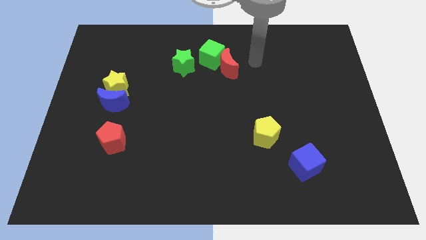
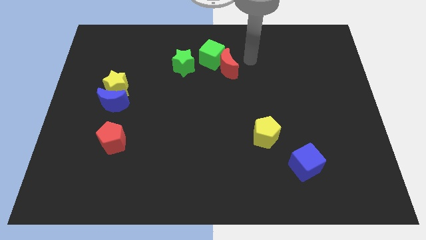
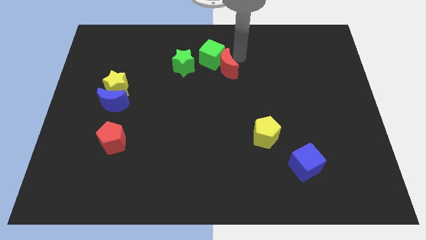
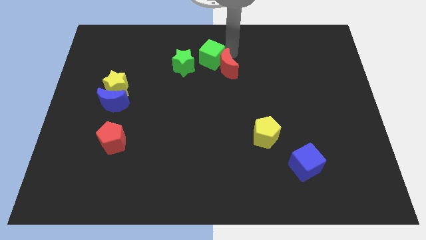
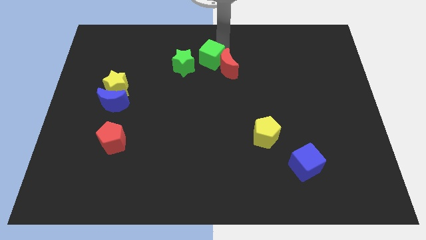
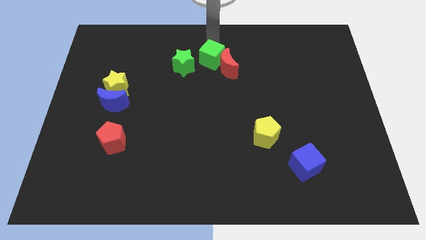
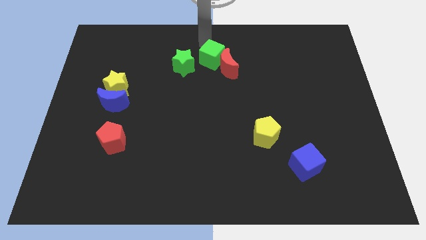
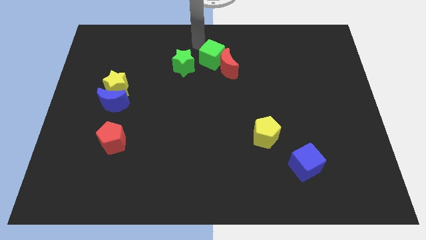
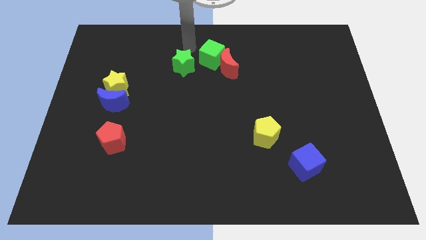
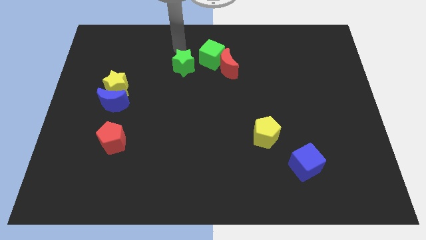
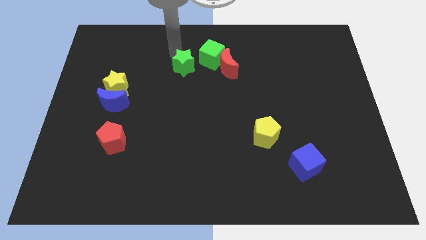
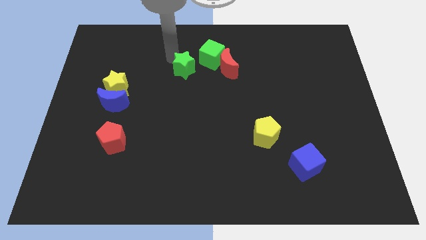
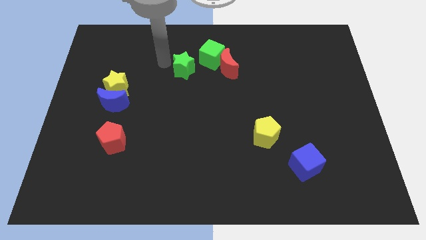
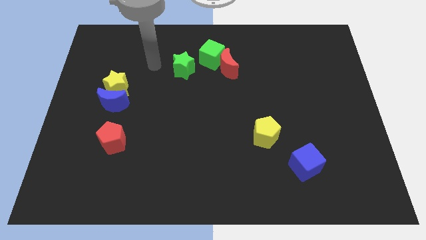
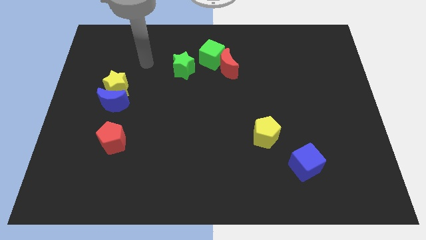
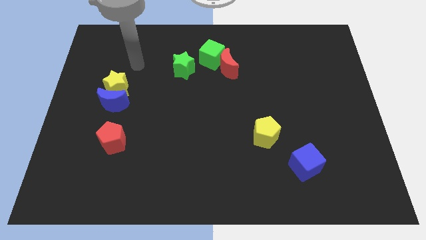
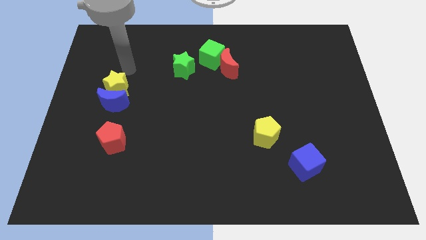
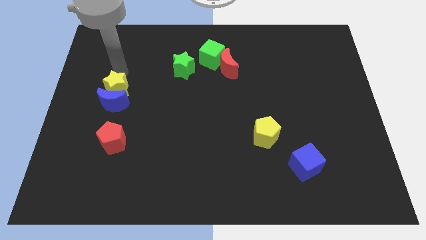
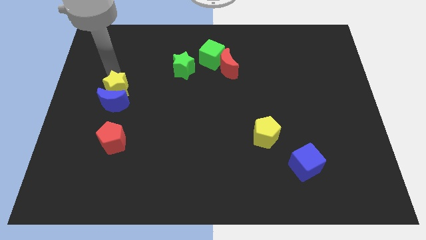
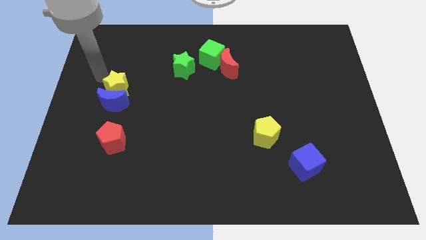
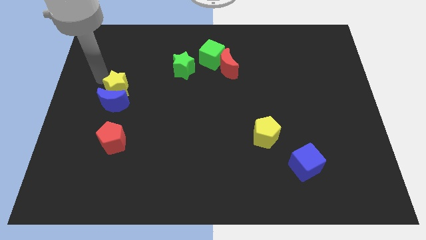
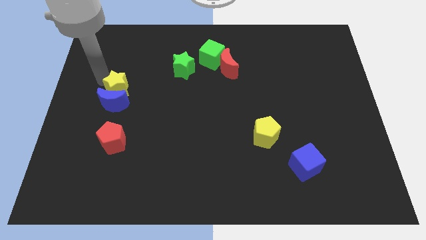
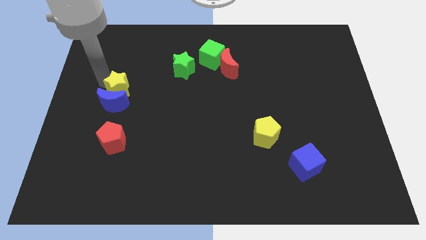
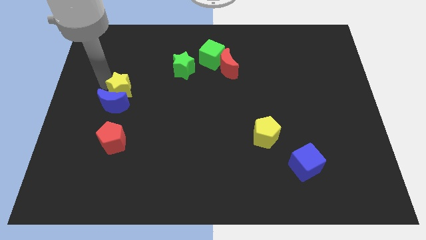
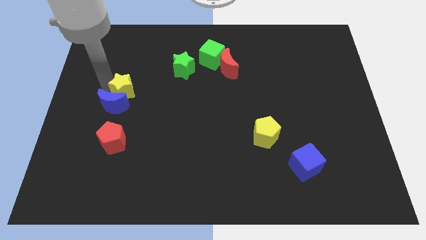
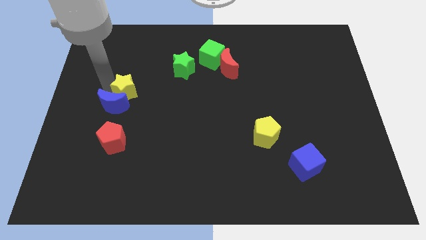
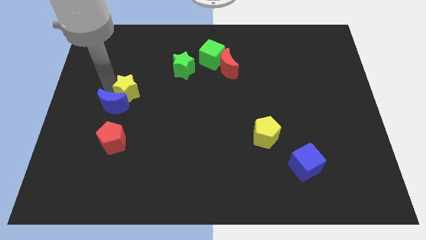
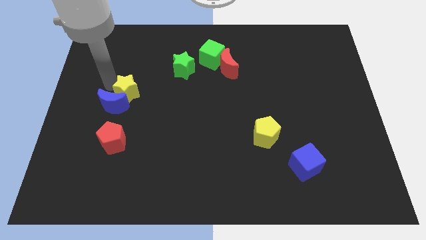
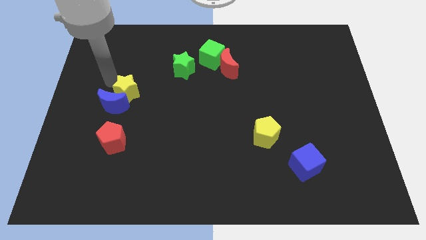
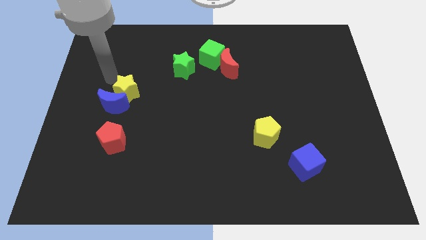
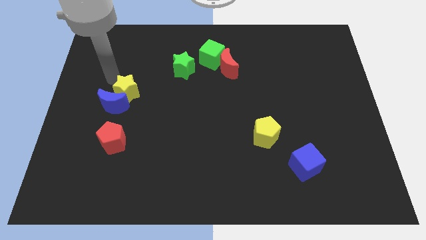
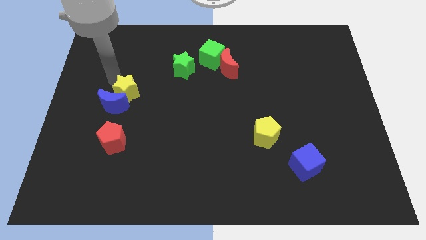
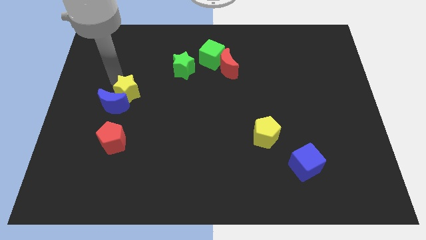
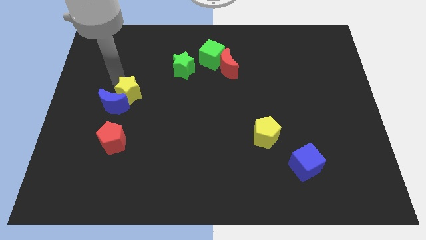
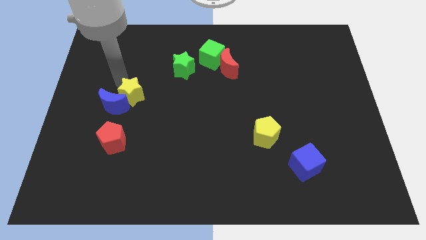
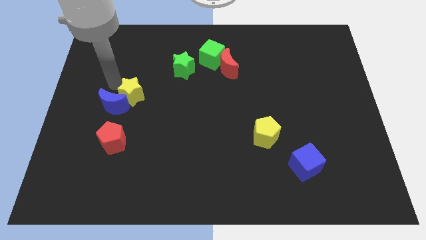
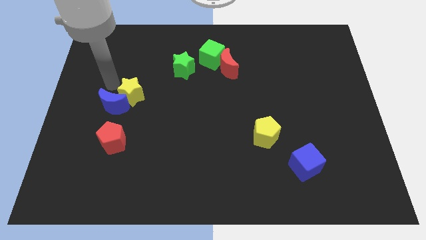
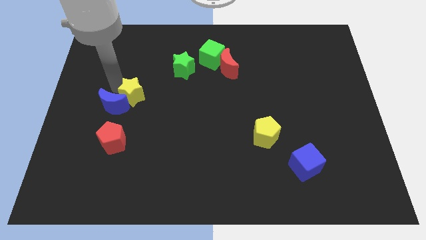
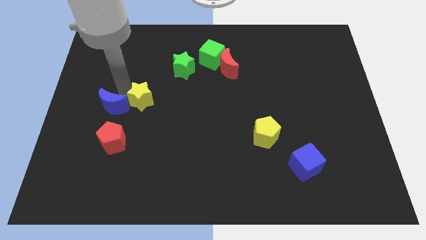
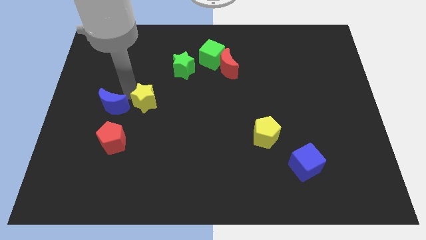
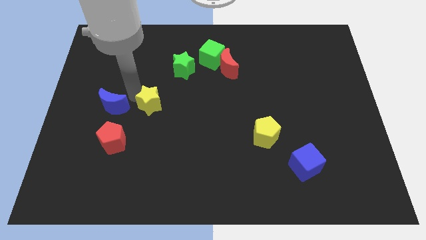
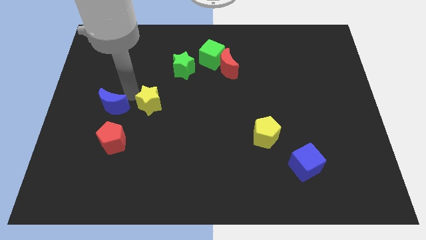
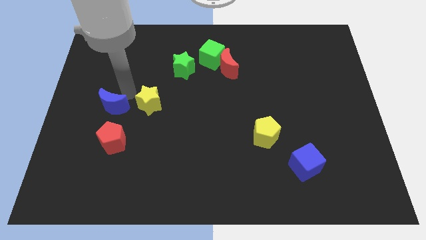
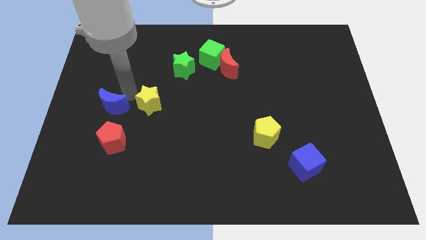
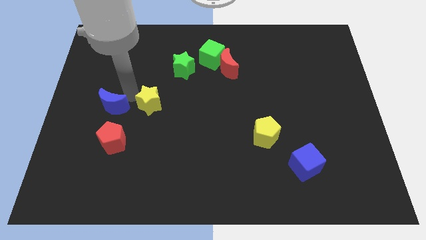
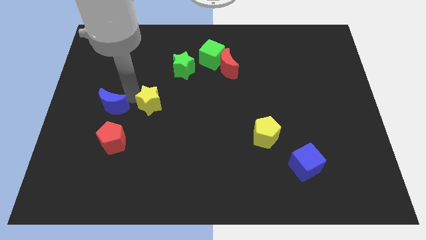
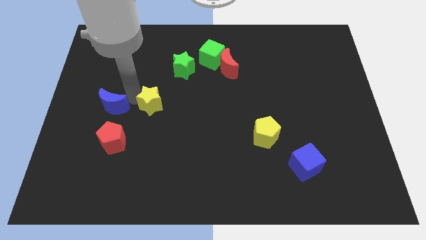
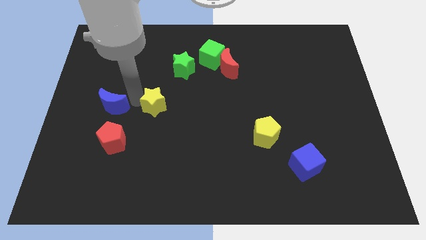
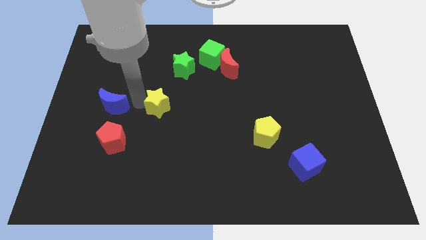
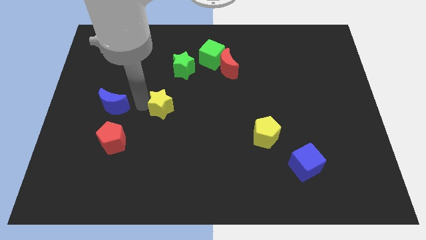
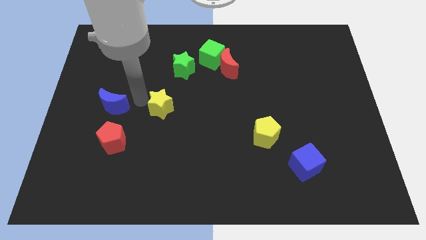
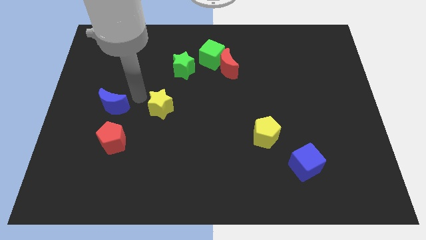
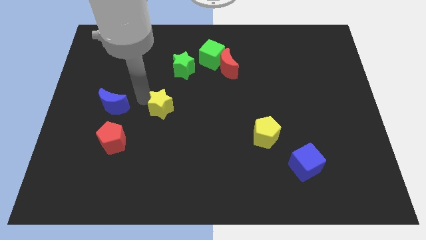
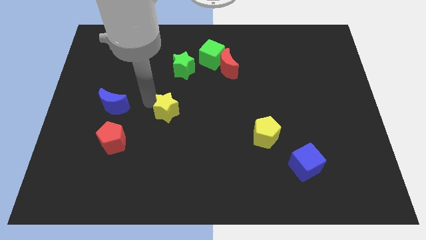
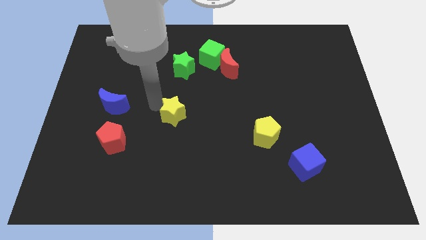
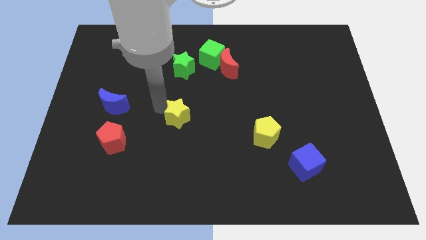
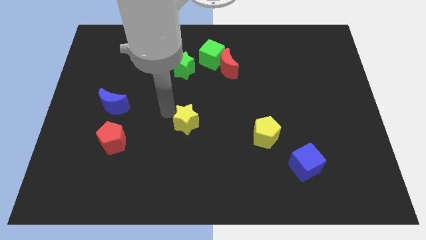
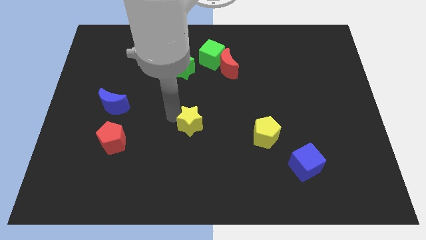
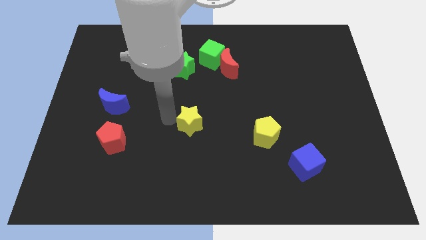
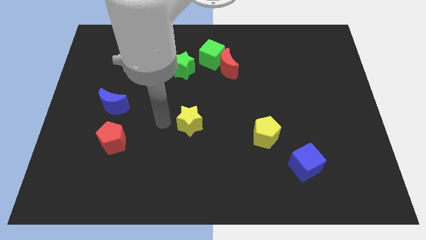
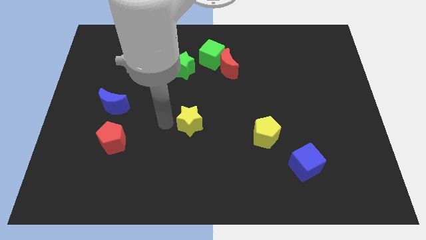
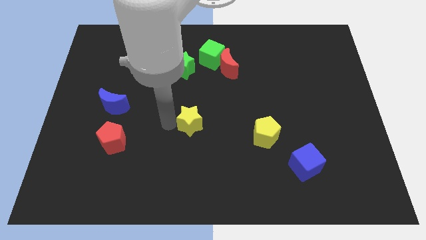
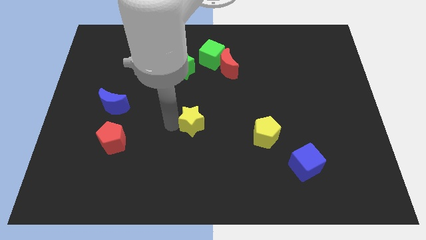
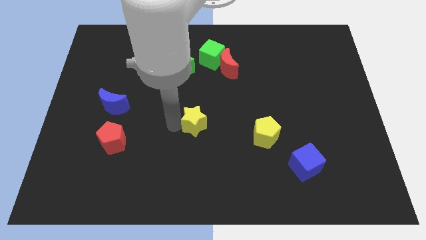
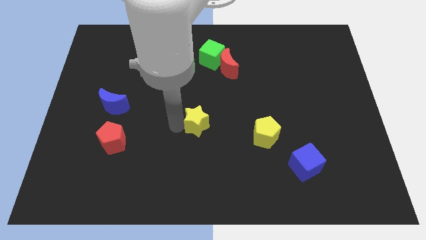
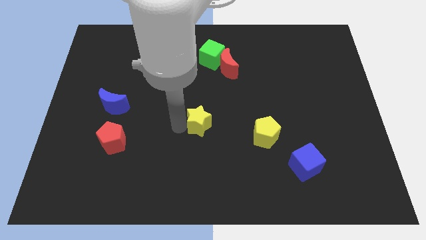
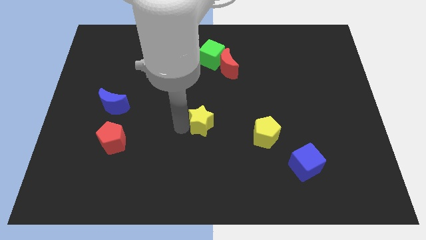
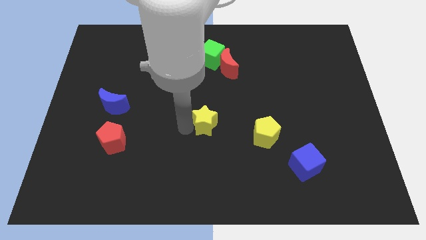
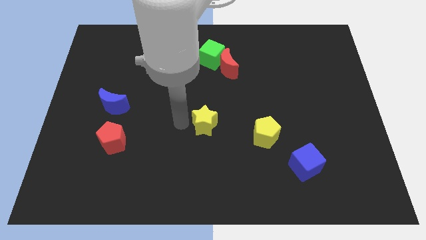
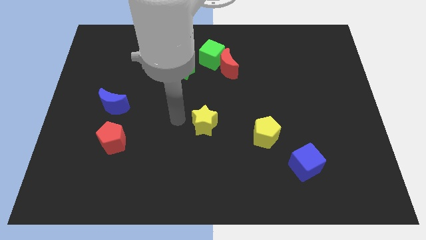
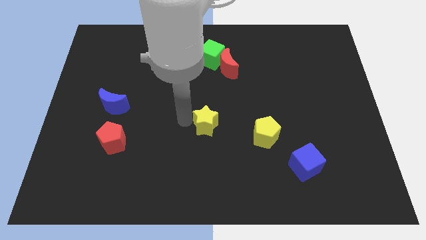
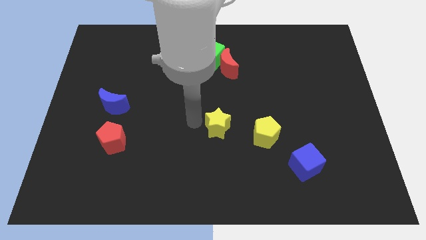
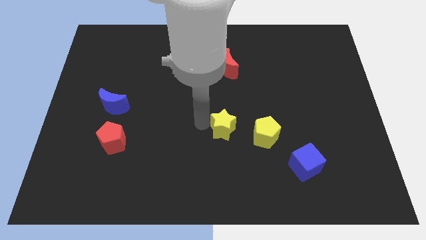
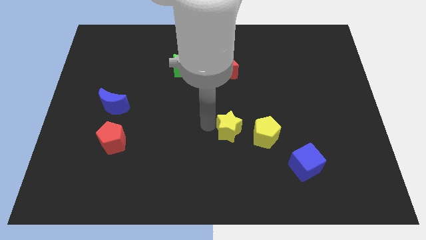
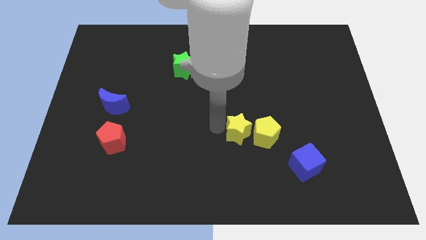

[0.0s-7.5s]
put the yellow star next to the yellow pentagon
